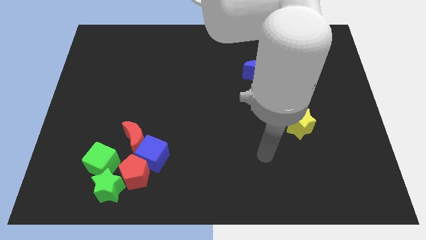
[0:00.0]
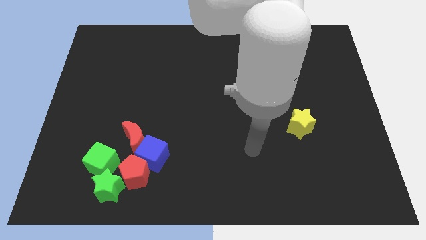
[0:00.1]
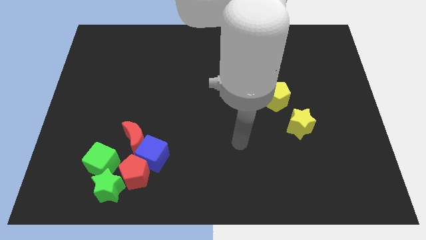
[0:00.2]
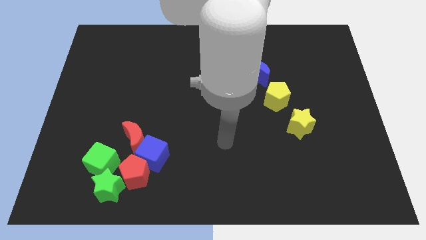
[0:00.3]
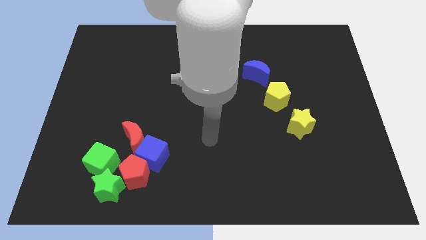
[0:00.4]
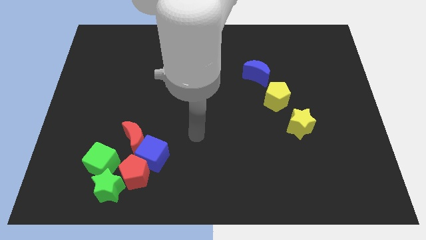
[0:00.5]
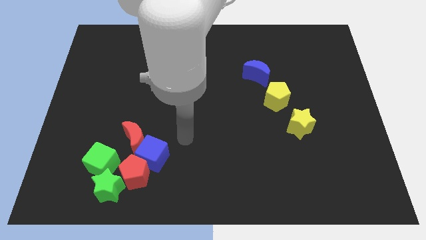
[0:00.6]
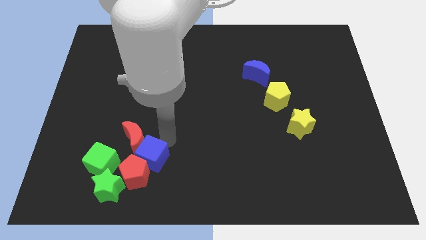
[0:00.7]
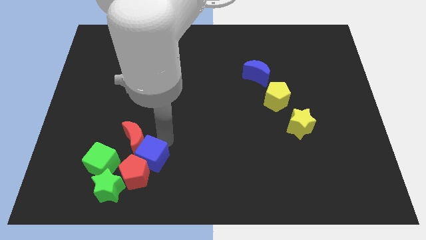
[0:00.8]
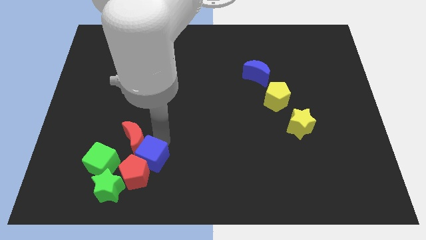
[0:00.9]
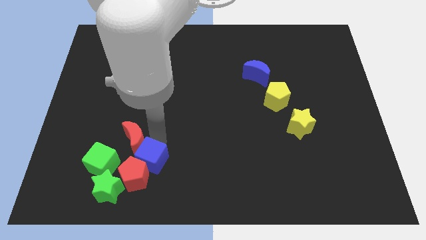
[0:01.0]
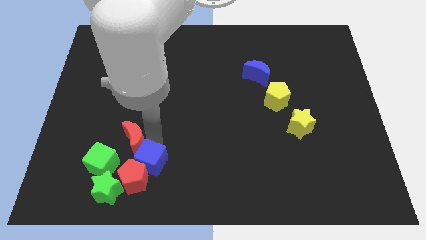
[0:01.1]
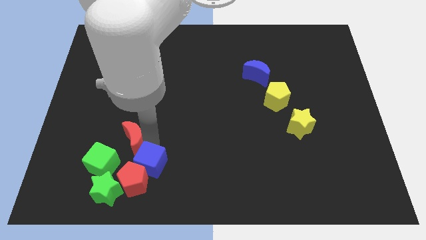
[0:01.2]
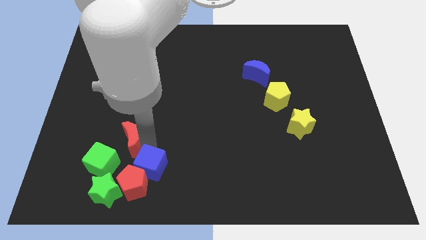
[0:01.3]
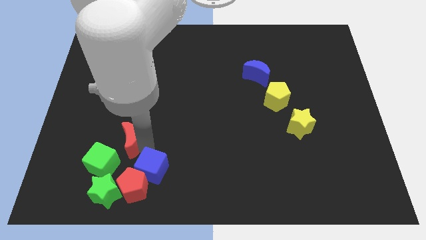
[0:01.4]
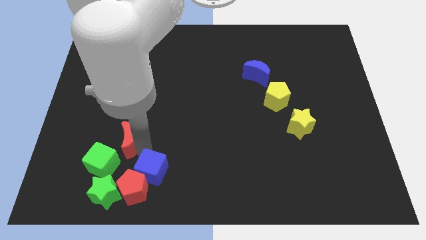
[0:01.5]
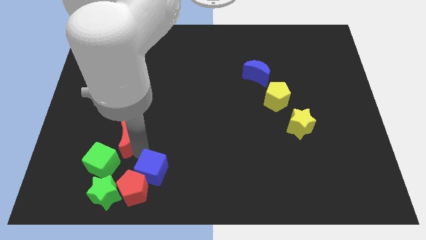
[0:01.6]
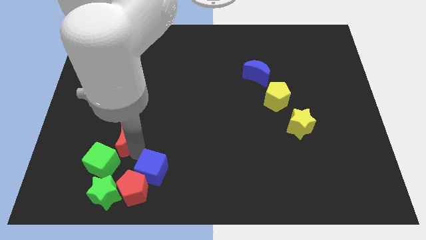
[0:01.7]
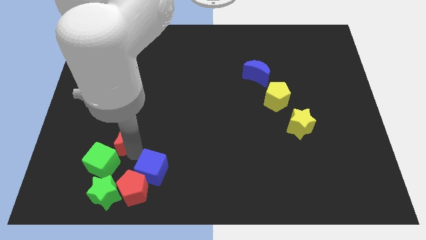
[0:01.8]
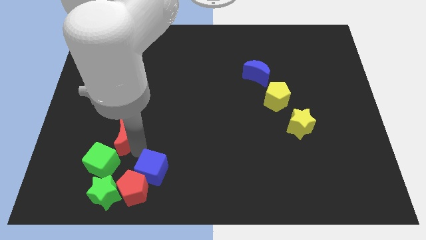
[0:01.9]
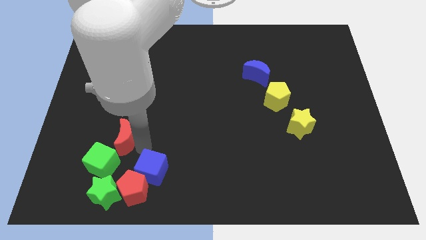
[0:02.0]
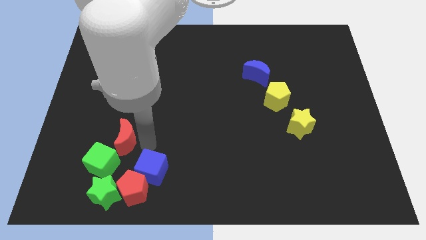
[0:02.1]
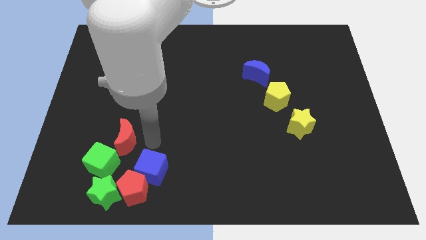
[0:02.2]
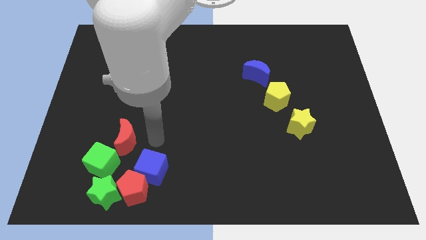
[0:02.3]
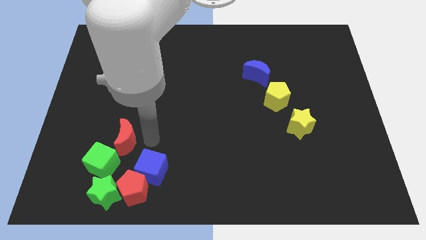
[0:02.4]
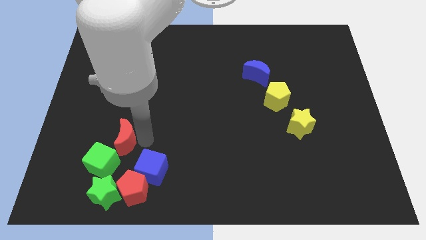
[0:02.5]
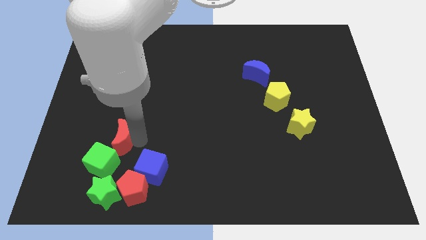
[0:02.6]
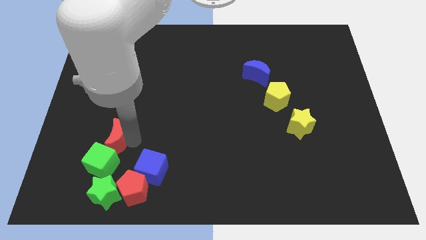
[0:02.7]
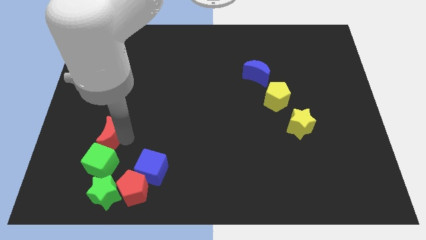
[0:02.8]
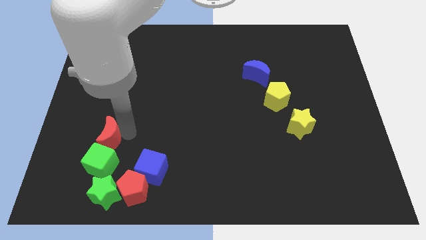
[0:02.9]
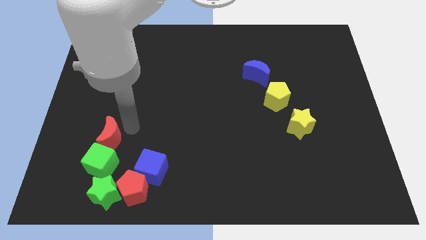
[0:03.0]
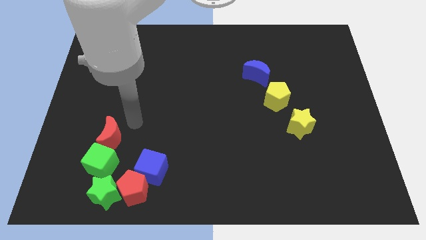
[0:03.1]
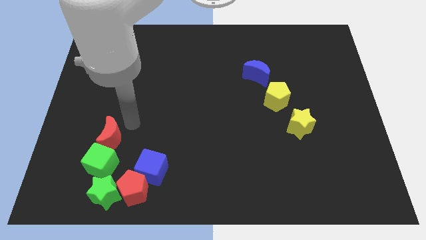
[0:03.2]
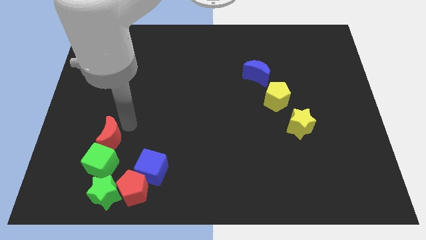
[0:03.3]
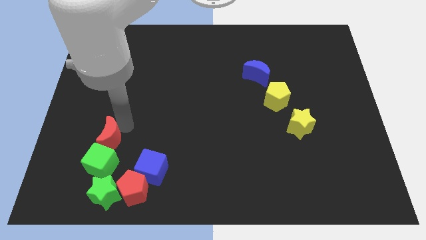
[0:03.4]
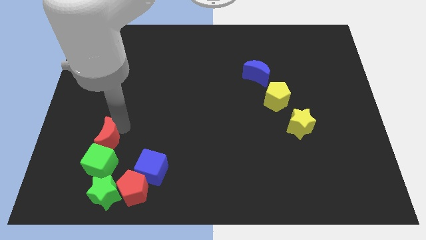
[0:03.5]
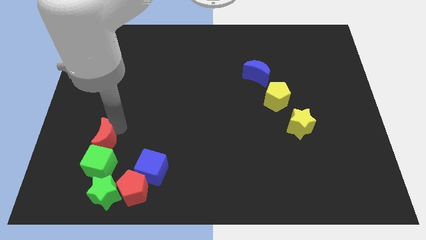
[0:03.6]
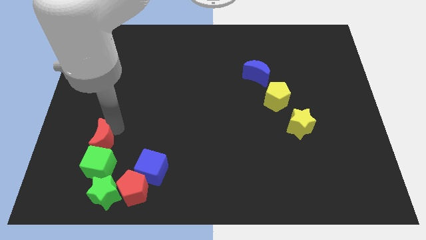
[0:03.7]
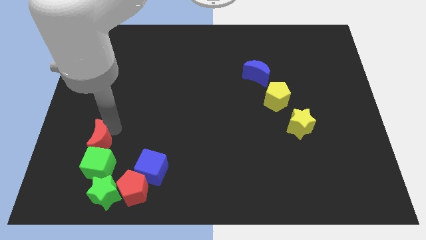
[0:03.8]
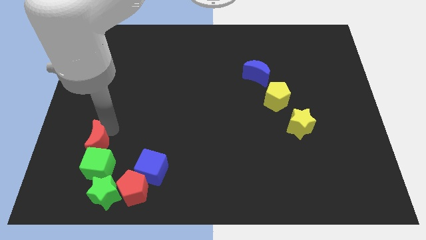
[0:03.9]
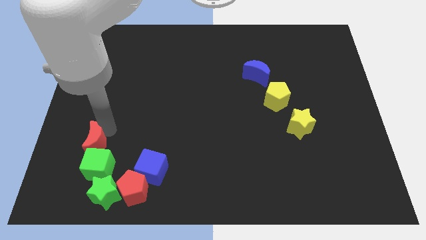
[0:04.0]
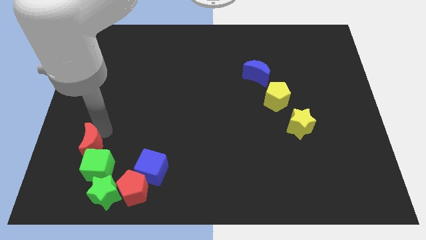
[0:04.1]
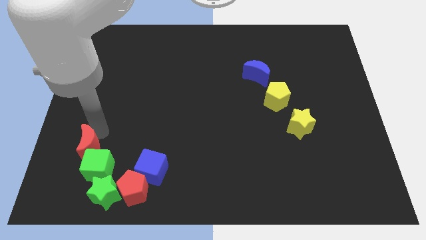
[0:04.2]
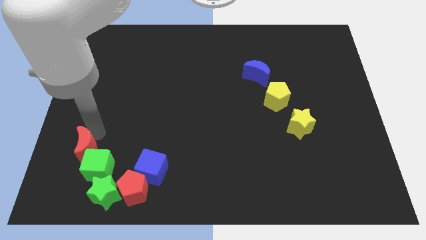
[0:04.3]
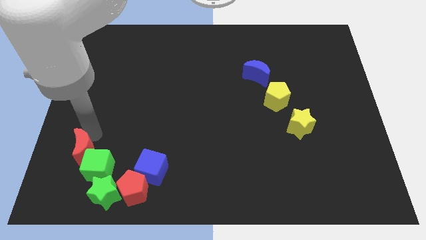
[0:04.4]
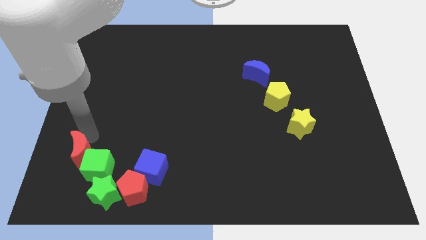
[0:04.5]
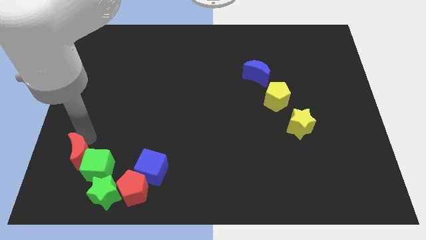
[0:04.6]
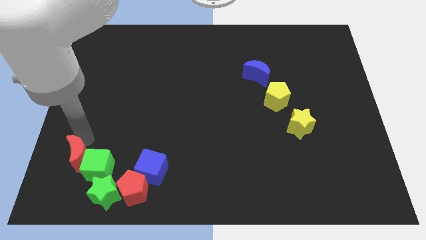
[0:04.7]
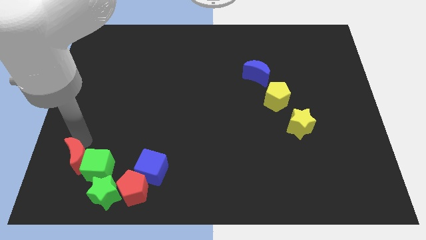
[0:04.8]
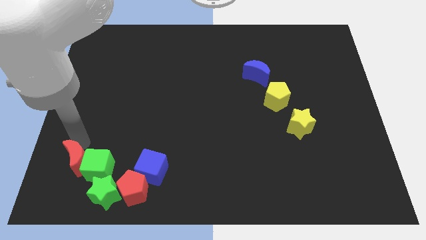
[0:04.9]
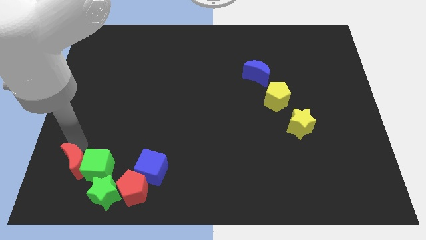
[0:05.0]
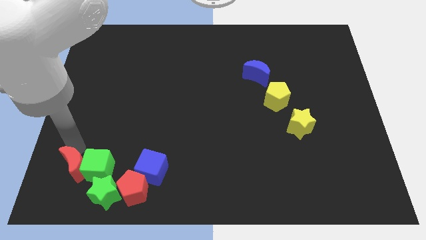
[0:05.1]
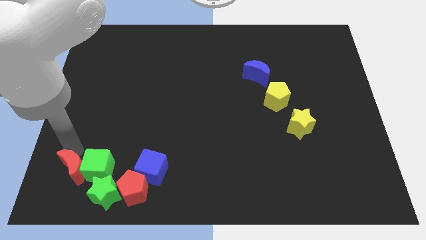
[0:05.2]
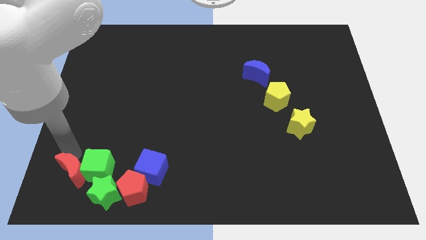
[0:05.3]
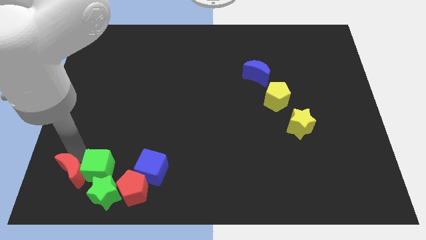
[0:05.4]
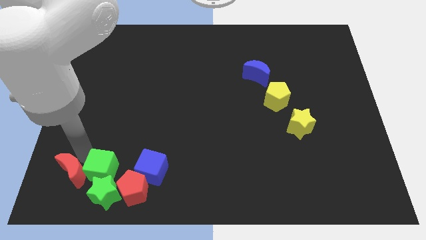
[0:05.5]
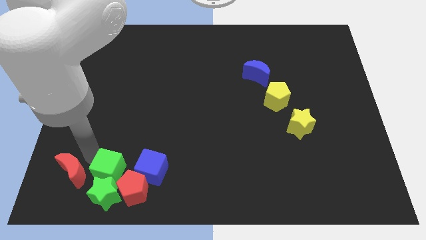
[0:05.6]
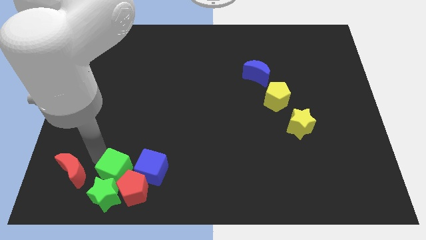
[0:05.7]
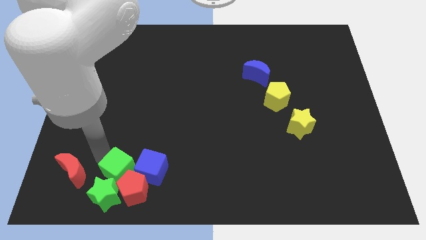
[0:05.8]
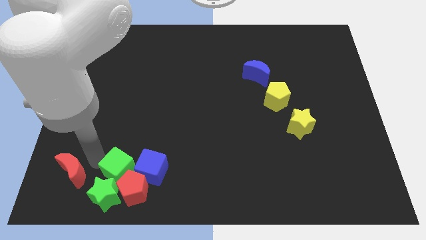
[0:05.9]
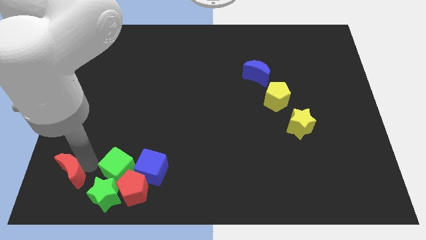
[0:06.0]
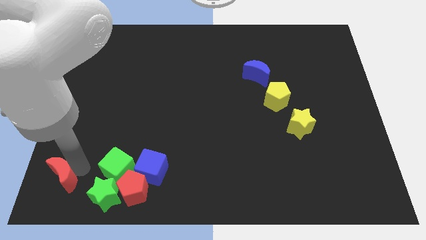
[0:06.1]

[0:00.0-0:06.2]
slide the red moon to the bottom left of the board
